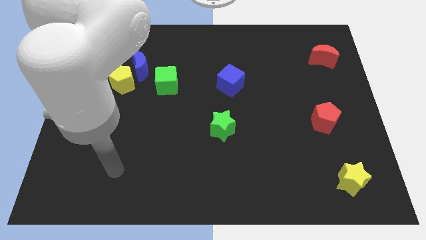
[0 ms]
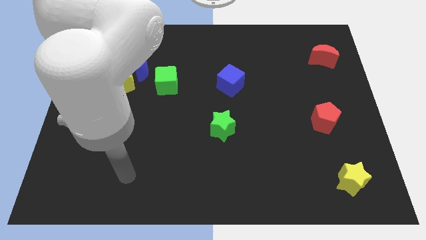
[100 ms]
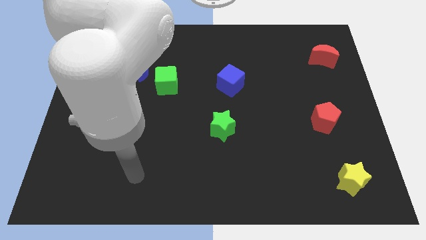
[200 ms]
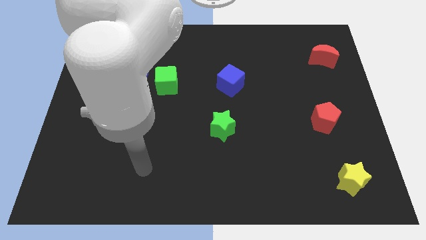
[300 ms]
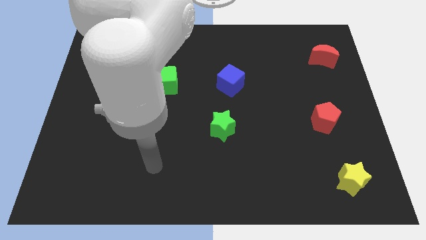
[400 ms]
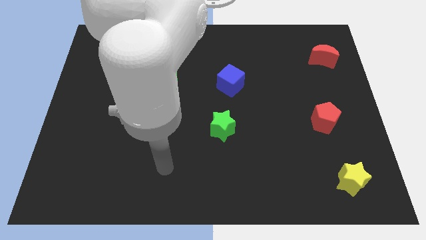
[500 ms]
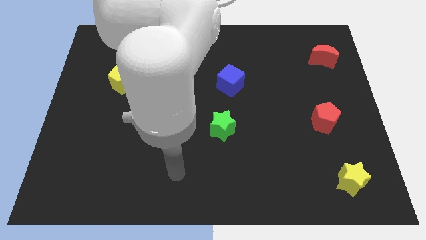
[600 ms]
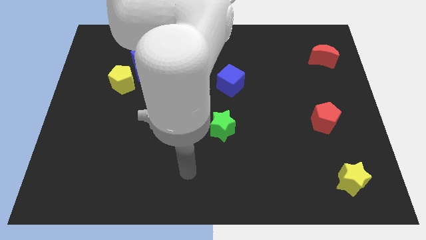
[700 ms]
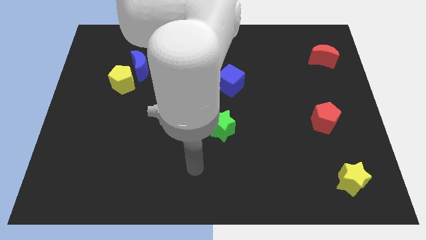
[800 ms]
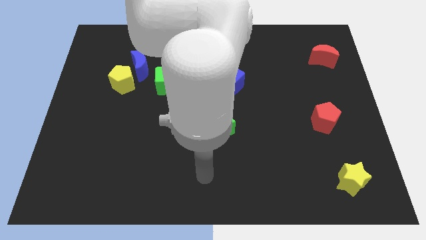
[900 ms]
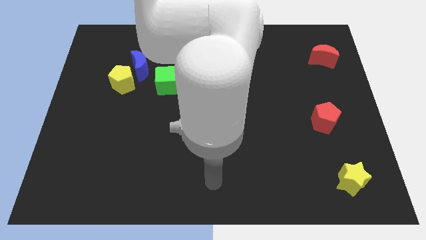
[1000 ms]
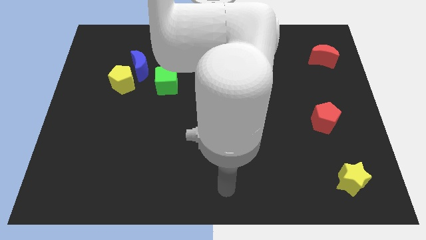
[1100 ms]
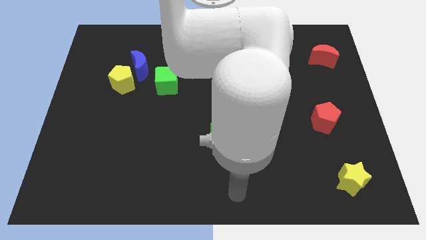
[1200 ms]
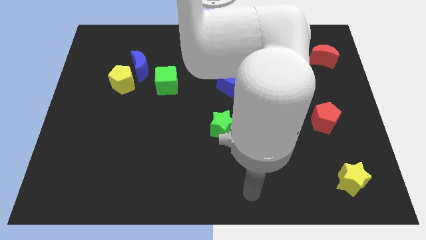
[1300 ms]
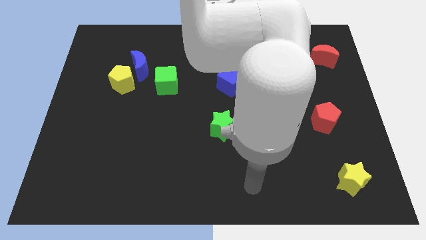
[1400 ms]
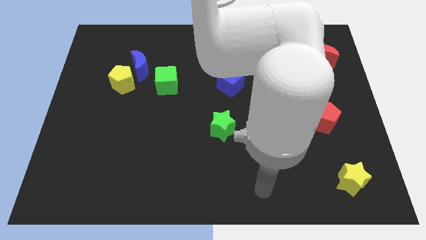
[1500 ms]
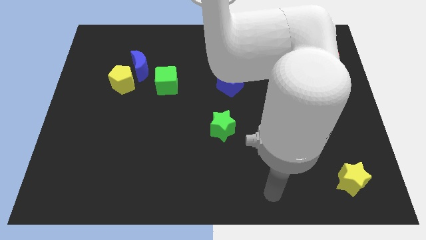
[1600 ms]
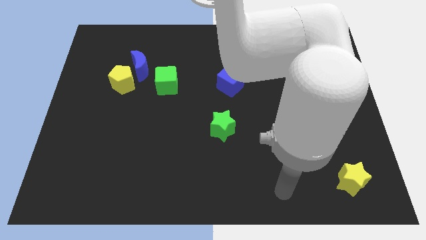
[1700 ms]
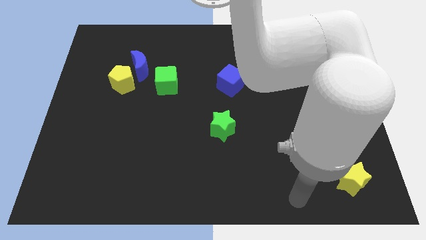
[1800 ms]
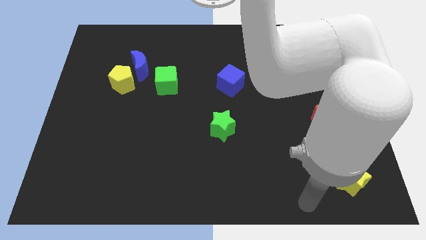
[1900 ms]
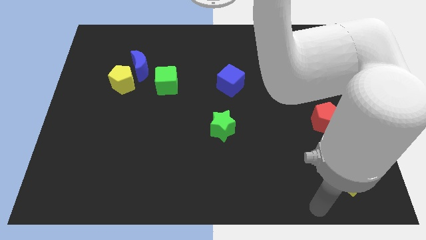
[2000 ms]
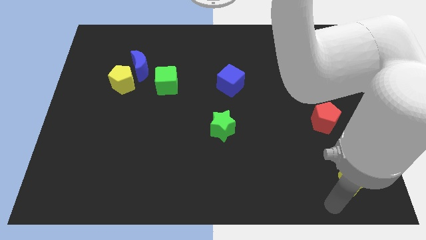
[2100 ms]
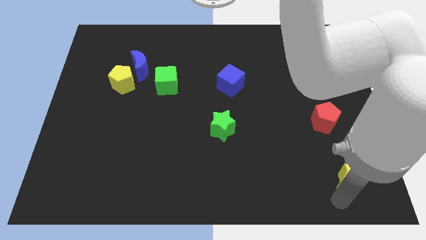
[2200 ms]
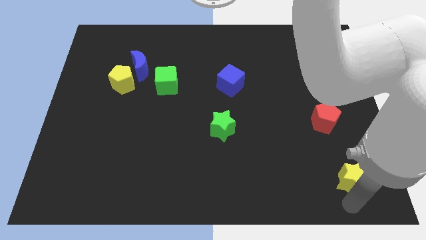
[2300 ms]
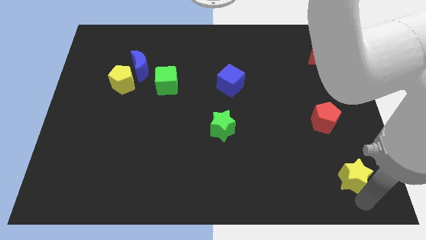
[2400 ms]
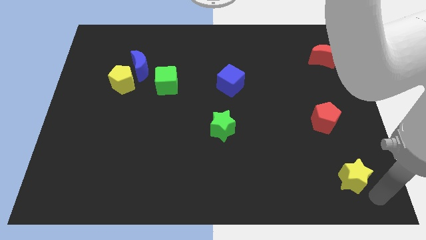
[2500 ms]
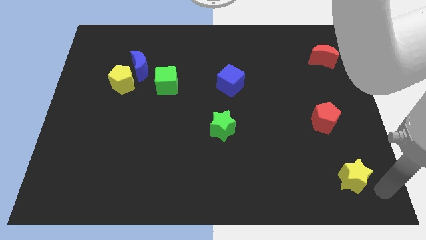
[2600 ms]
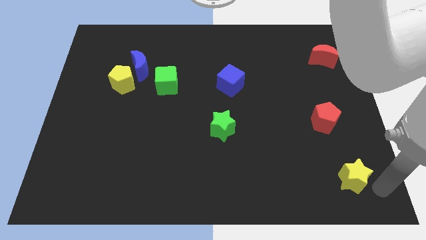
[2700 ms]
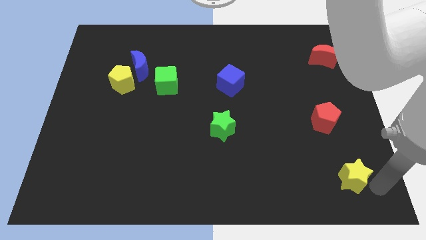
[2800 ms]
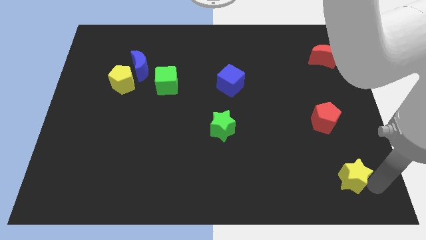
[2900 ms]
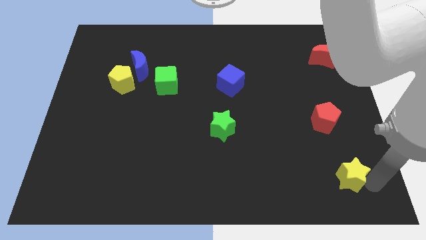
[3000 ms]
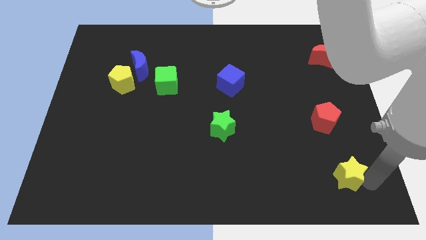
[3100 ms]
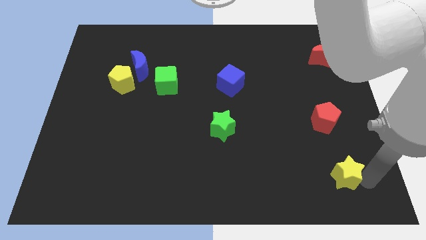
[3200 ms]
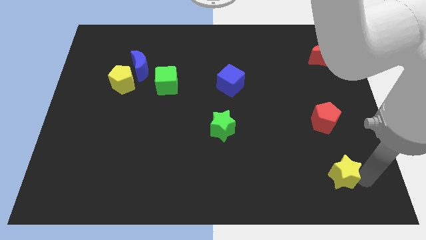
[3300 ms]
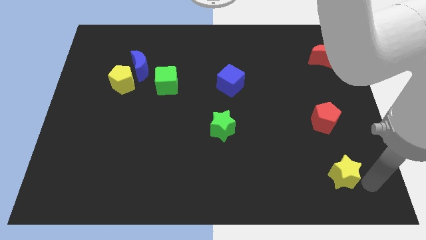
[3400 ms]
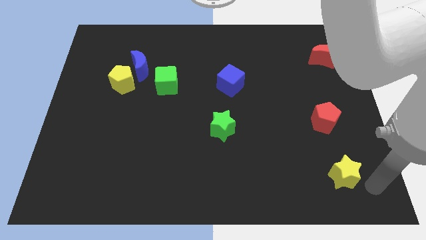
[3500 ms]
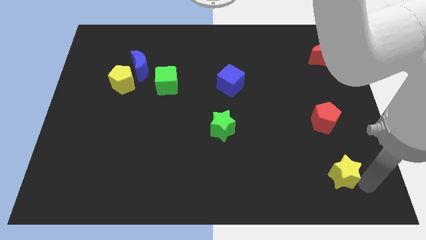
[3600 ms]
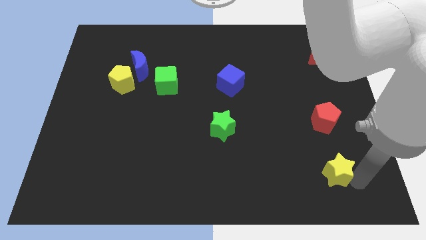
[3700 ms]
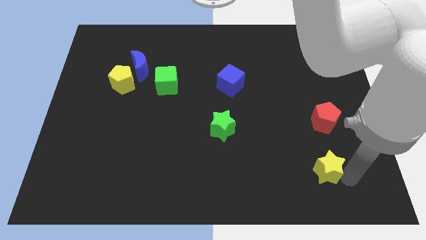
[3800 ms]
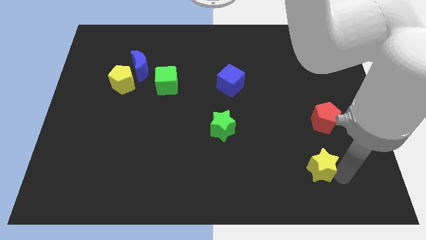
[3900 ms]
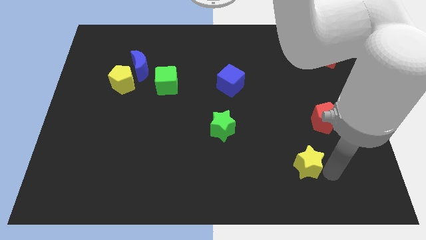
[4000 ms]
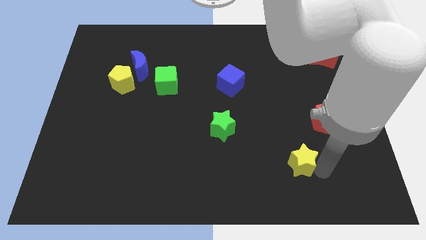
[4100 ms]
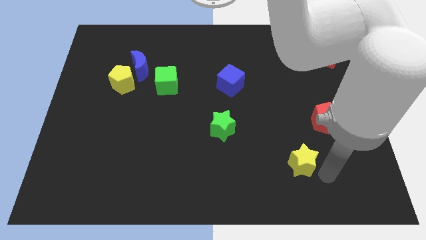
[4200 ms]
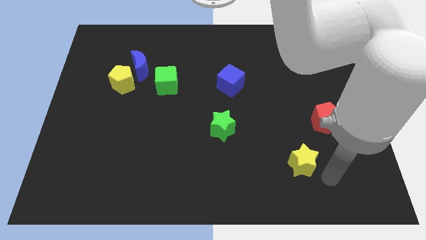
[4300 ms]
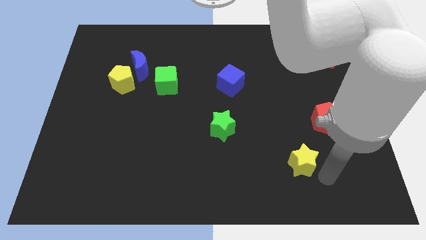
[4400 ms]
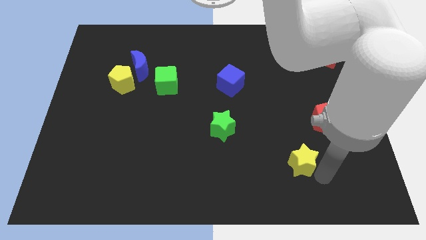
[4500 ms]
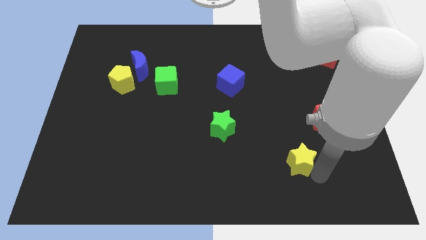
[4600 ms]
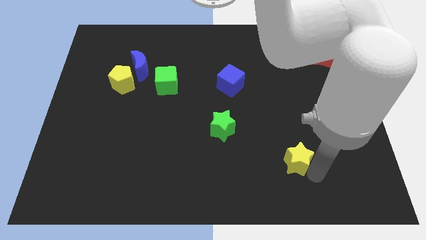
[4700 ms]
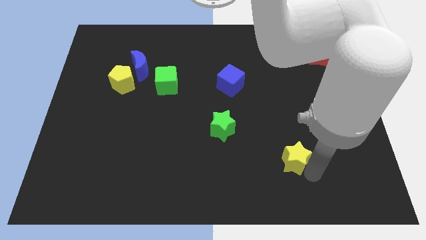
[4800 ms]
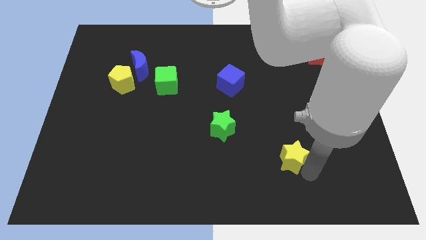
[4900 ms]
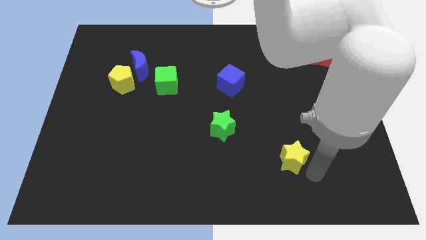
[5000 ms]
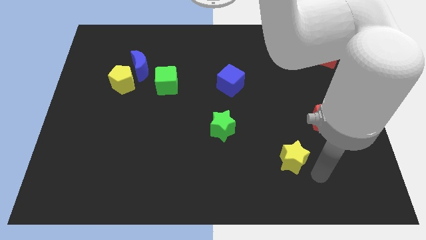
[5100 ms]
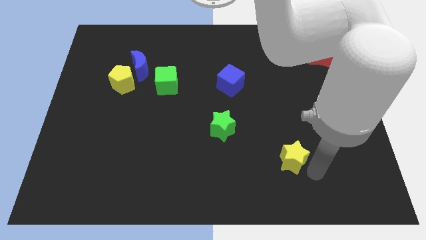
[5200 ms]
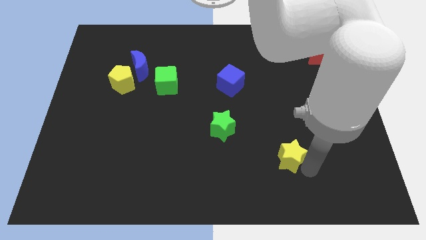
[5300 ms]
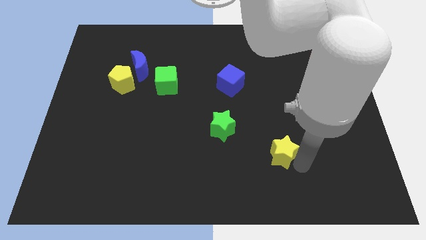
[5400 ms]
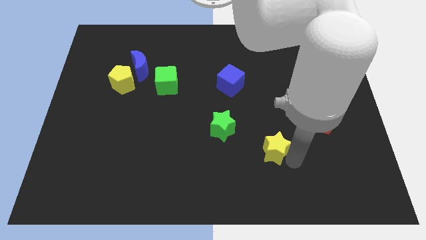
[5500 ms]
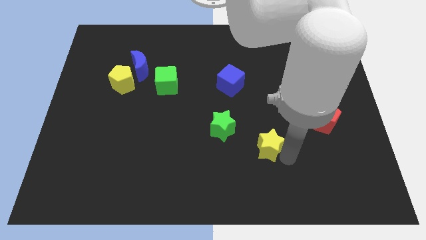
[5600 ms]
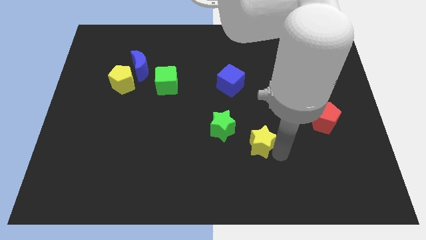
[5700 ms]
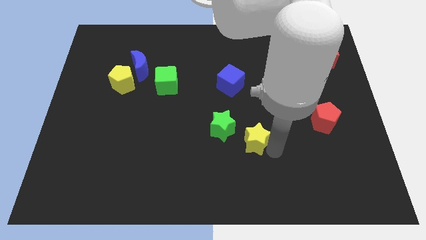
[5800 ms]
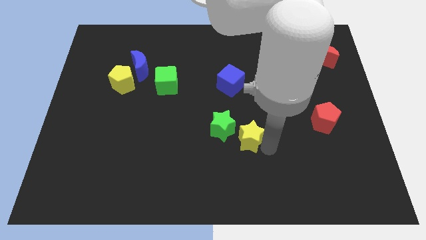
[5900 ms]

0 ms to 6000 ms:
put the yellow star next to the green star

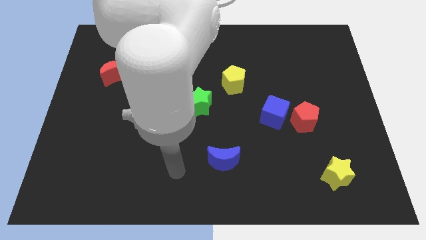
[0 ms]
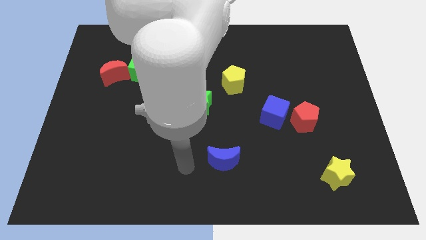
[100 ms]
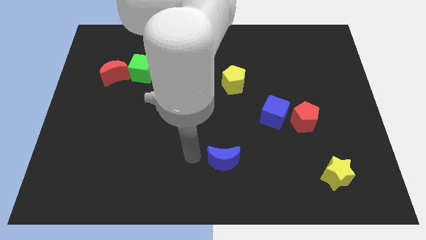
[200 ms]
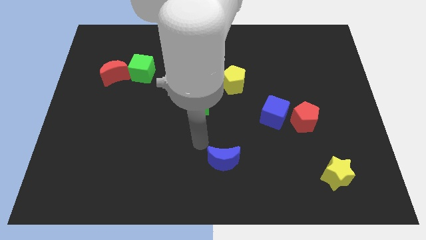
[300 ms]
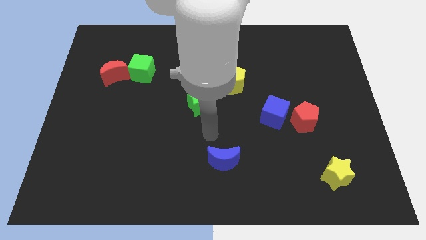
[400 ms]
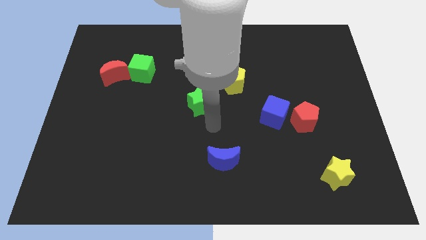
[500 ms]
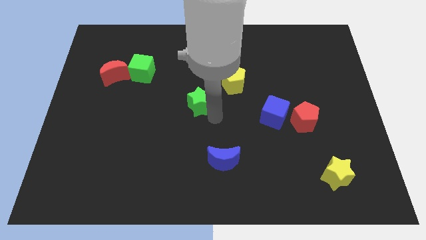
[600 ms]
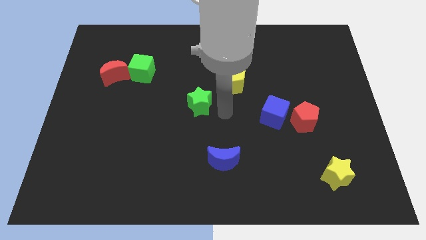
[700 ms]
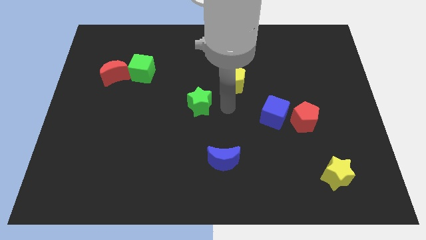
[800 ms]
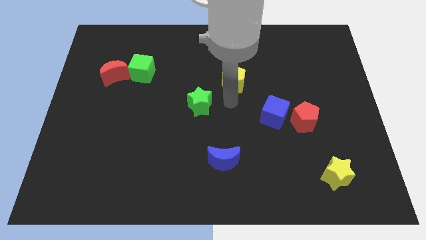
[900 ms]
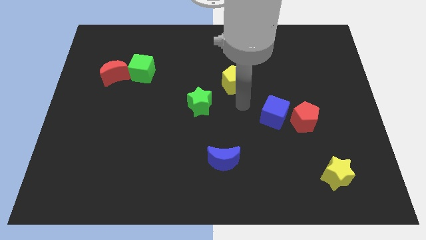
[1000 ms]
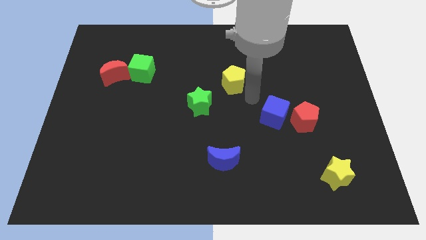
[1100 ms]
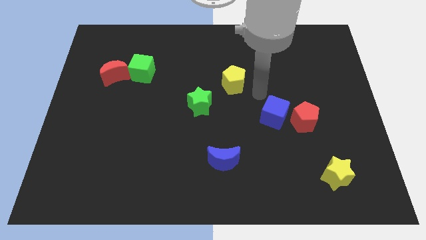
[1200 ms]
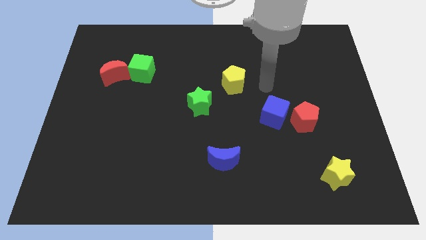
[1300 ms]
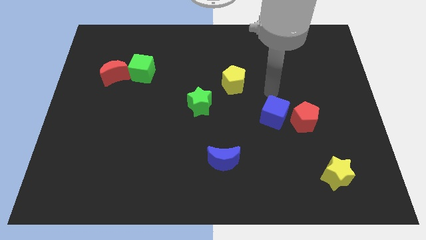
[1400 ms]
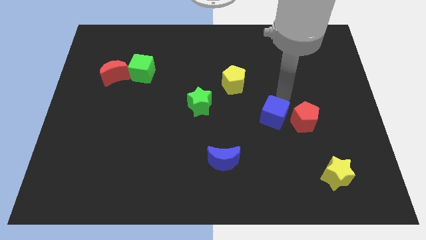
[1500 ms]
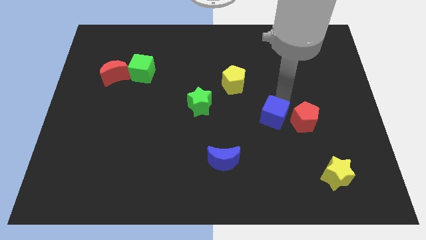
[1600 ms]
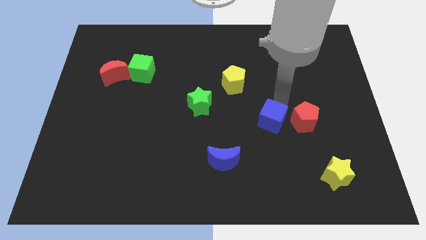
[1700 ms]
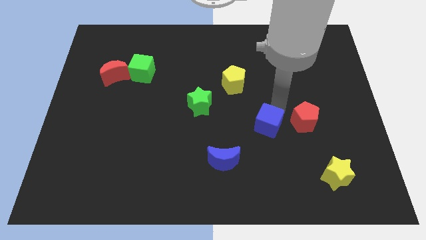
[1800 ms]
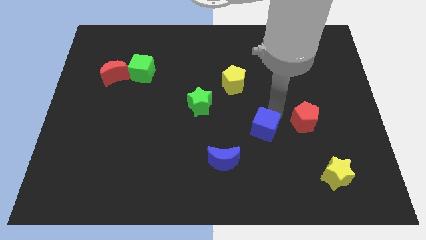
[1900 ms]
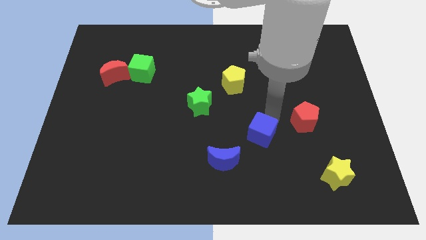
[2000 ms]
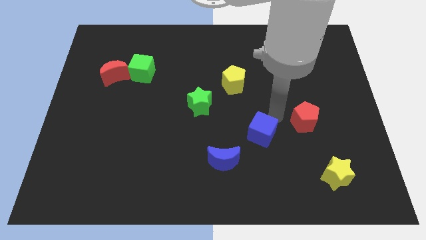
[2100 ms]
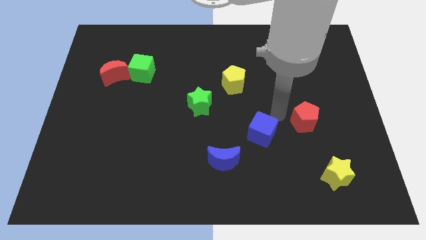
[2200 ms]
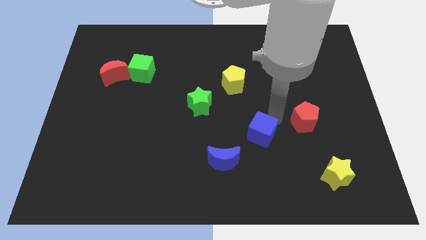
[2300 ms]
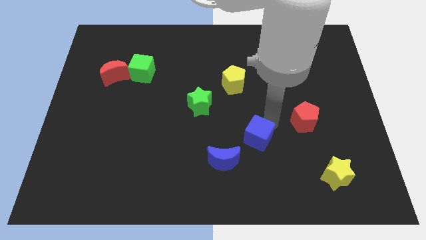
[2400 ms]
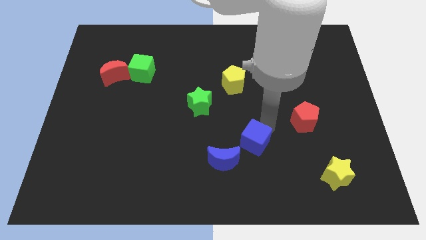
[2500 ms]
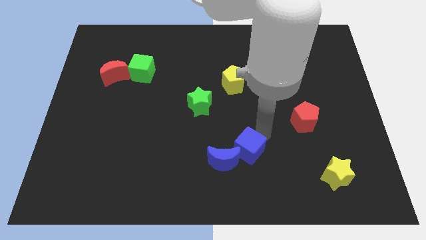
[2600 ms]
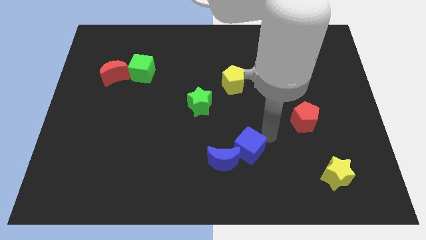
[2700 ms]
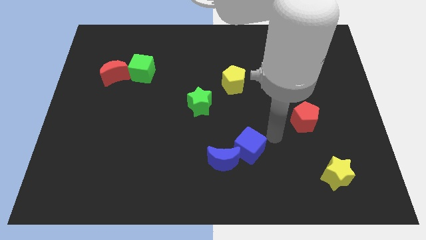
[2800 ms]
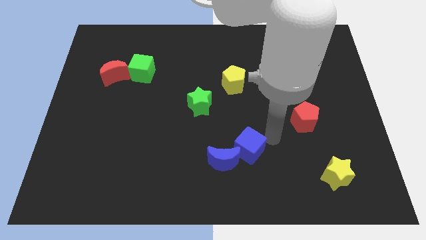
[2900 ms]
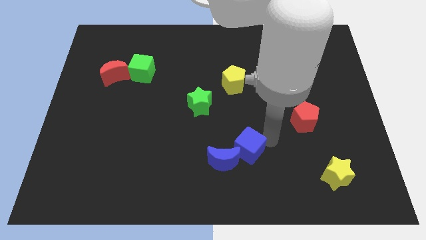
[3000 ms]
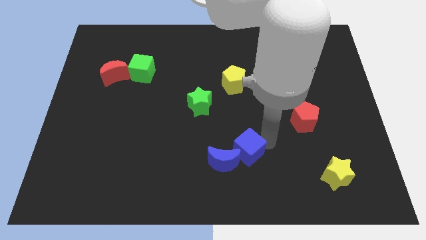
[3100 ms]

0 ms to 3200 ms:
move the blue cube towards the blue moon
